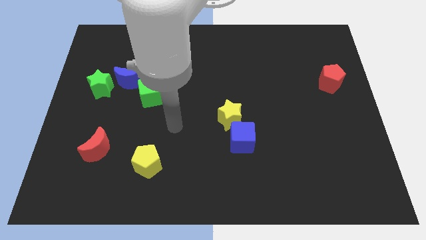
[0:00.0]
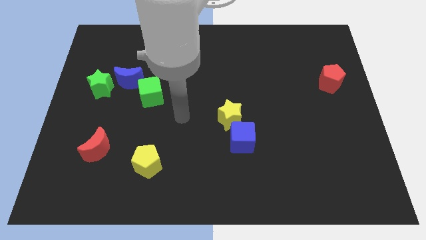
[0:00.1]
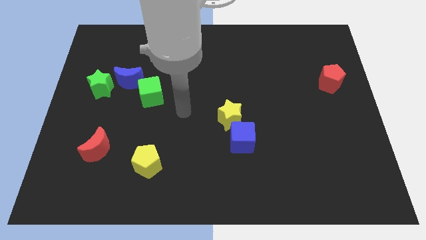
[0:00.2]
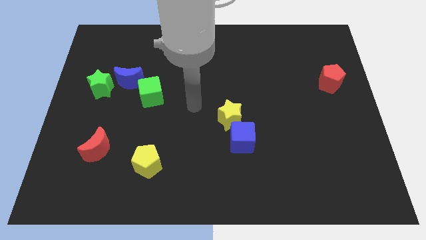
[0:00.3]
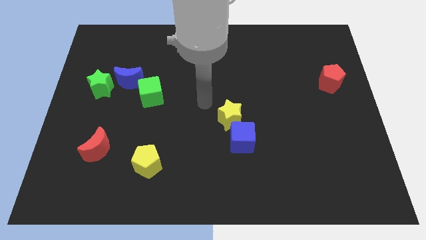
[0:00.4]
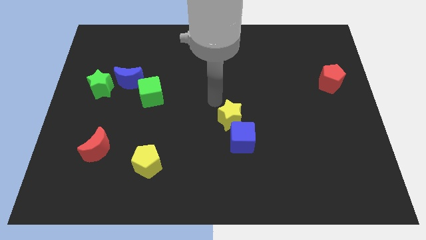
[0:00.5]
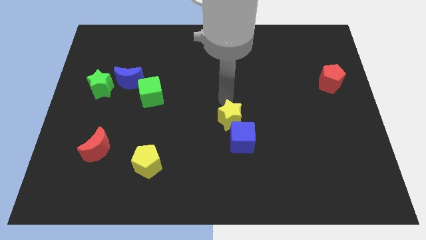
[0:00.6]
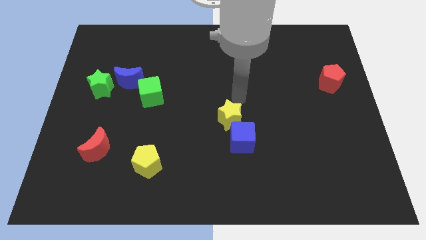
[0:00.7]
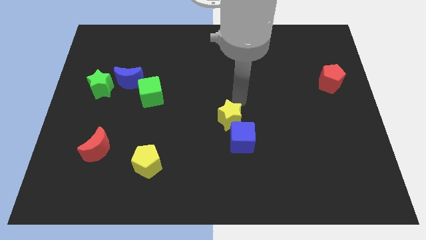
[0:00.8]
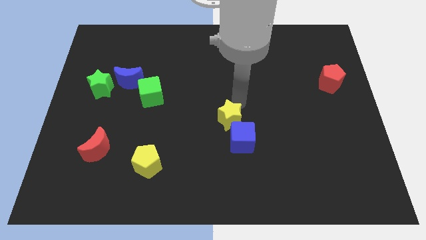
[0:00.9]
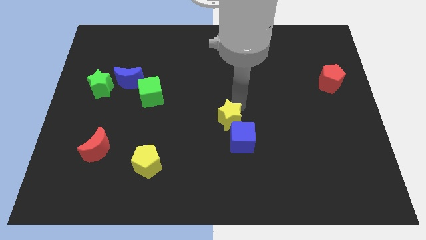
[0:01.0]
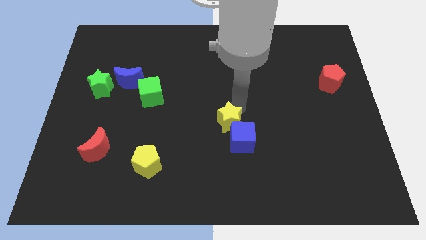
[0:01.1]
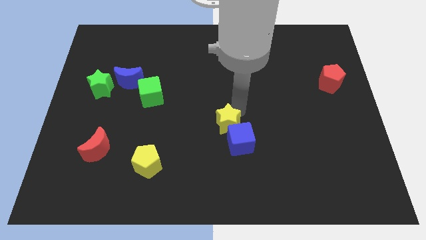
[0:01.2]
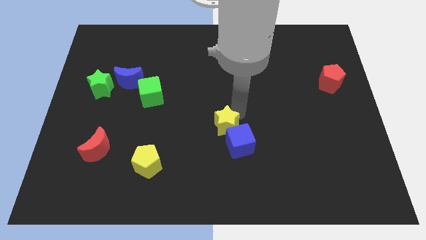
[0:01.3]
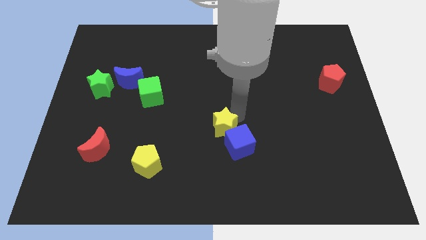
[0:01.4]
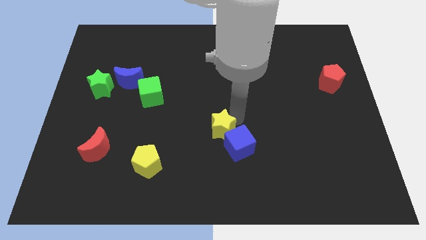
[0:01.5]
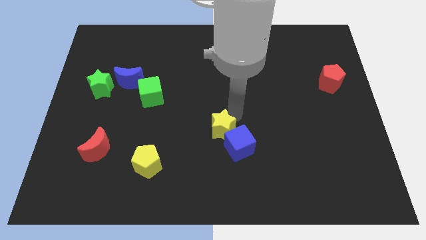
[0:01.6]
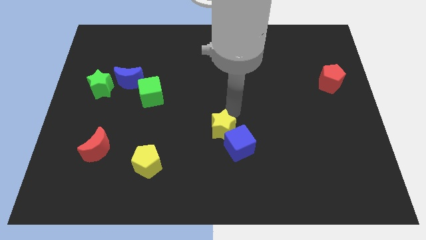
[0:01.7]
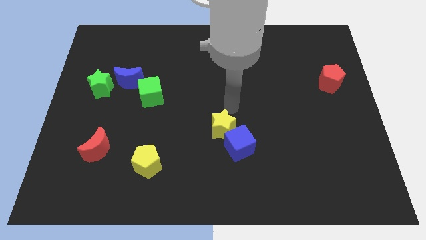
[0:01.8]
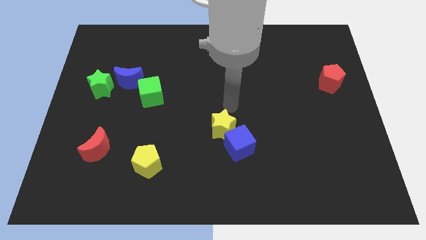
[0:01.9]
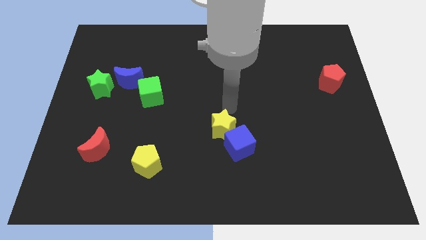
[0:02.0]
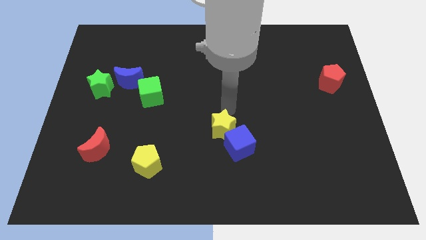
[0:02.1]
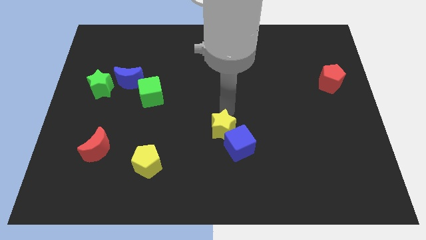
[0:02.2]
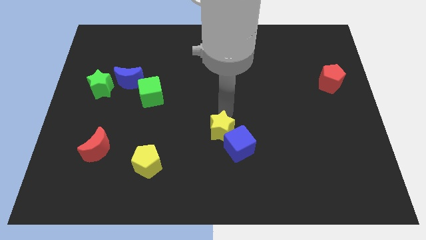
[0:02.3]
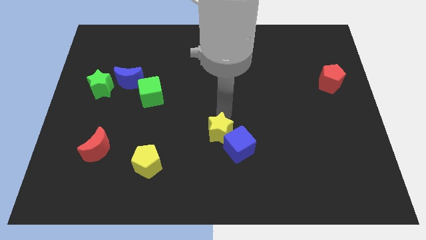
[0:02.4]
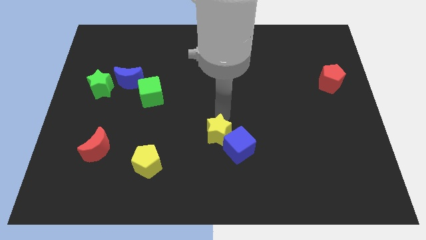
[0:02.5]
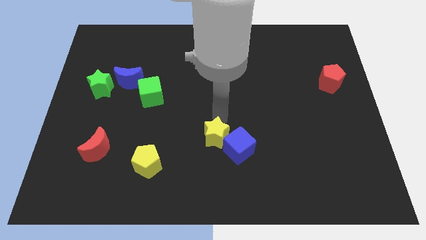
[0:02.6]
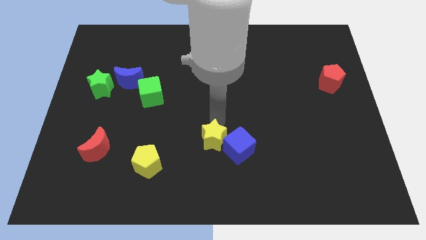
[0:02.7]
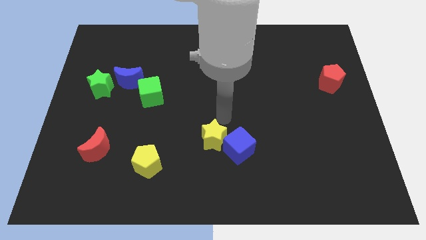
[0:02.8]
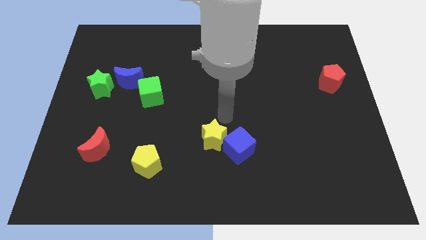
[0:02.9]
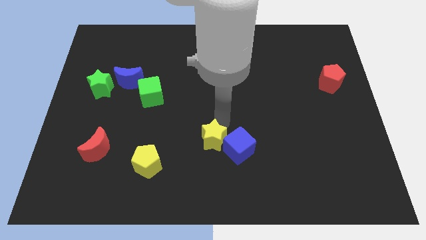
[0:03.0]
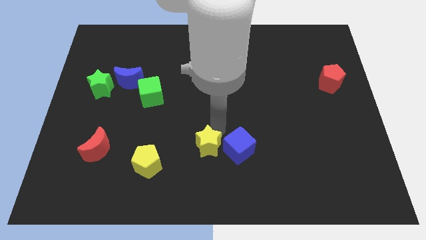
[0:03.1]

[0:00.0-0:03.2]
slide the yellow star downwards and left a little bit

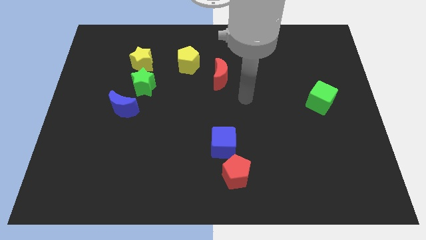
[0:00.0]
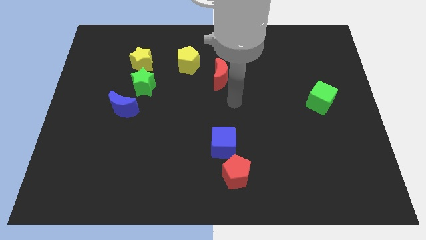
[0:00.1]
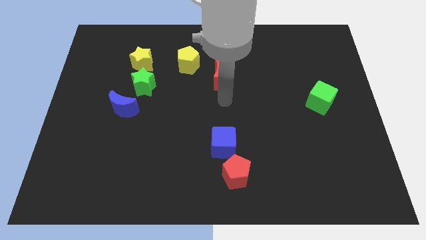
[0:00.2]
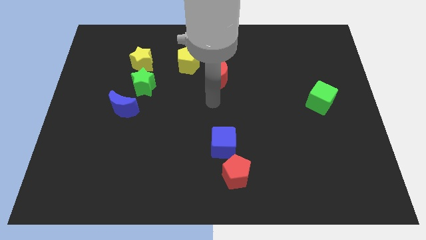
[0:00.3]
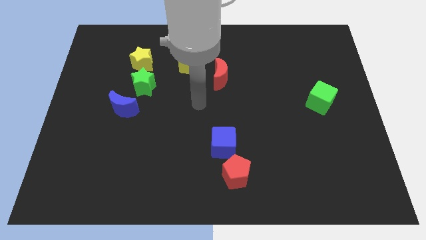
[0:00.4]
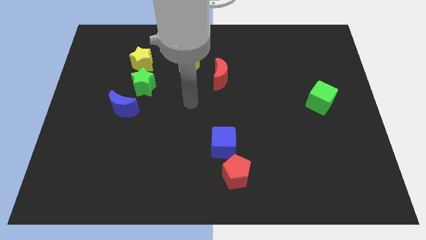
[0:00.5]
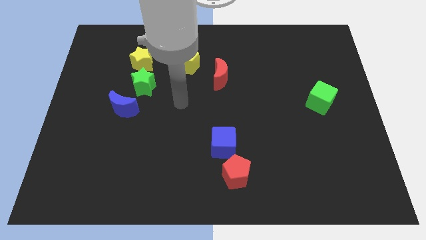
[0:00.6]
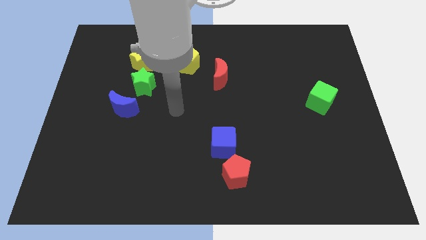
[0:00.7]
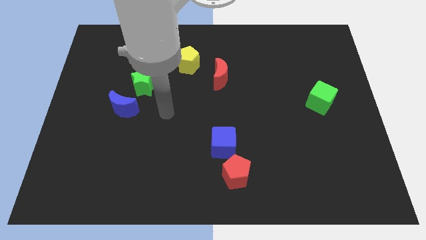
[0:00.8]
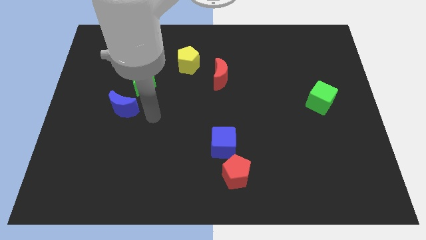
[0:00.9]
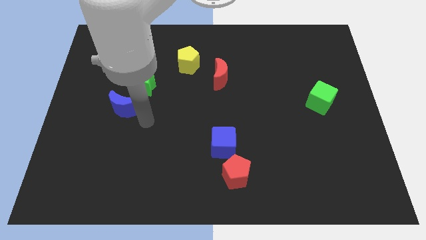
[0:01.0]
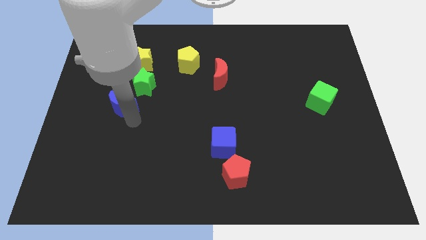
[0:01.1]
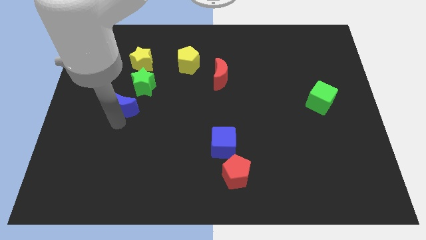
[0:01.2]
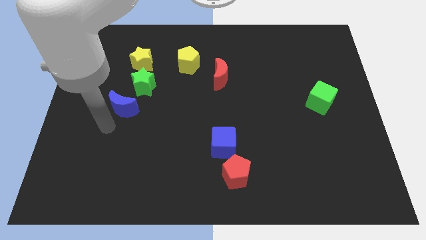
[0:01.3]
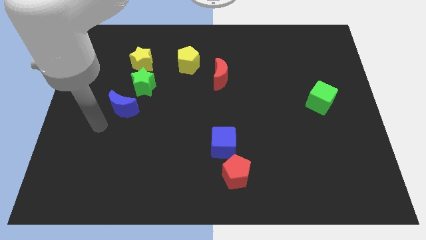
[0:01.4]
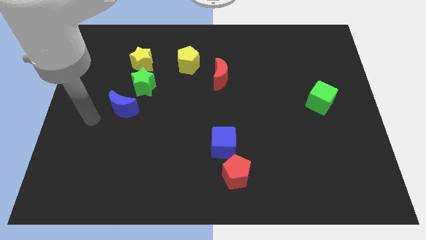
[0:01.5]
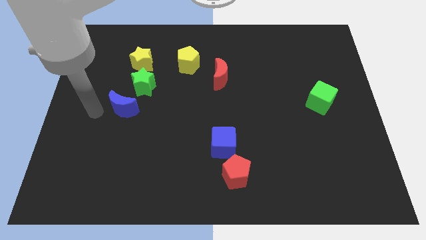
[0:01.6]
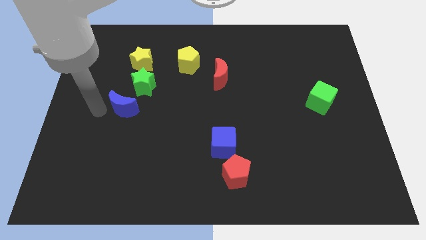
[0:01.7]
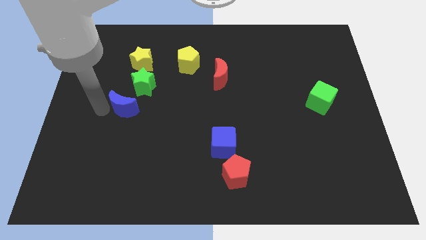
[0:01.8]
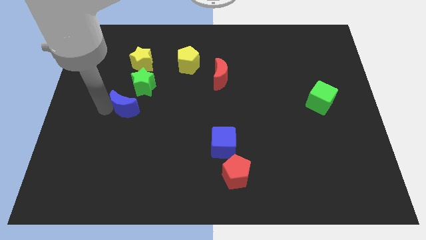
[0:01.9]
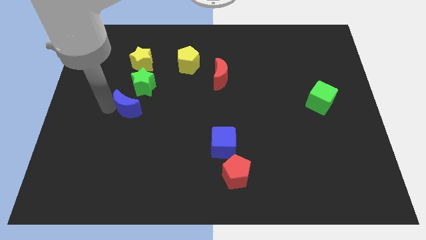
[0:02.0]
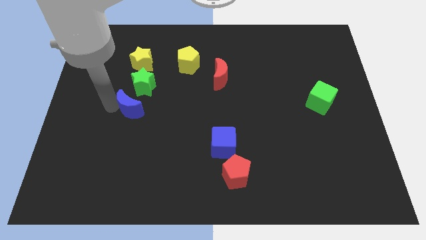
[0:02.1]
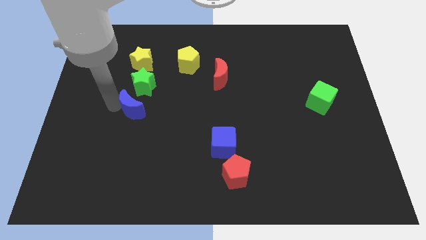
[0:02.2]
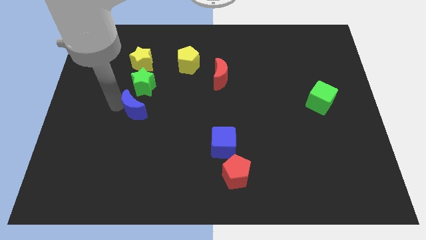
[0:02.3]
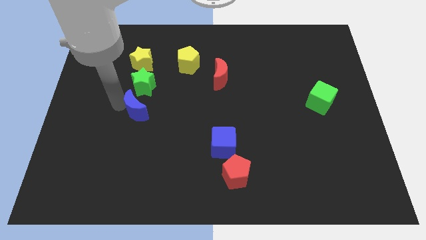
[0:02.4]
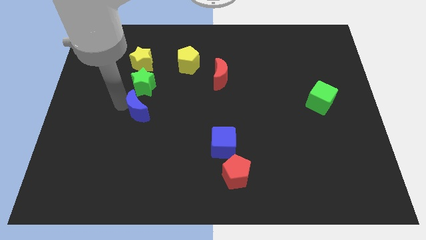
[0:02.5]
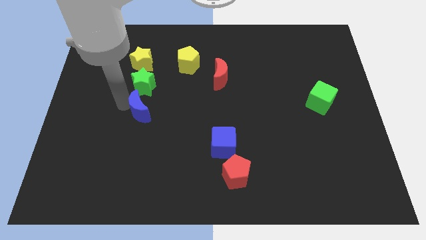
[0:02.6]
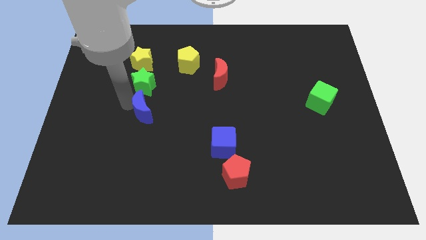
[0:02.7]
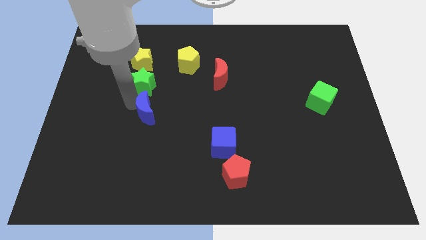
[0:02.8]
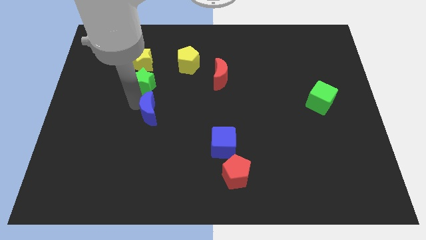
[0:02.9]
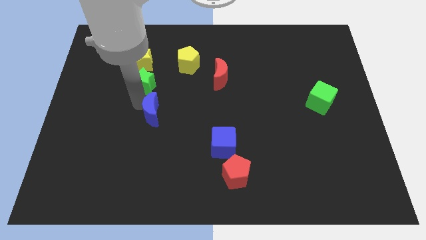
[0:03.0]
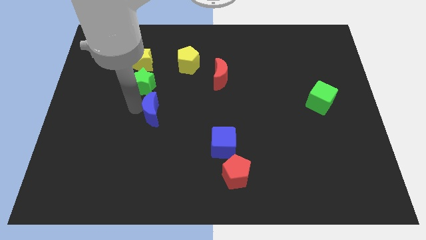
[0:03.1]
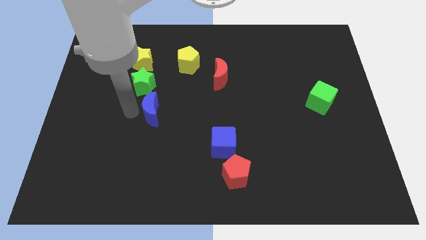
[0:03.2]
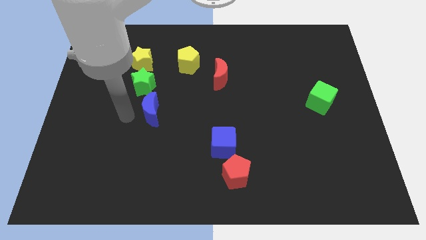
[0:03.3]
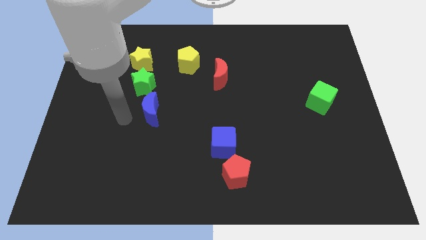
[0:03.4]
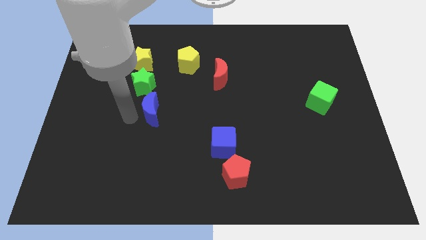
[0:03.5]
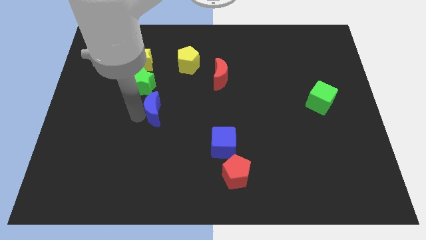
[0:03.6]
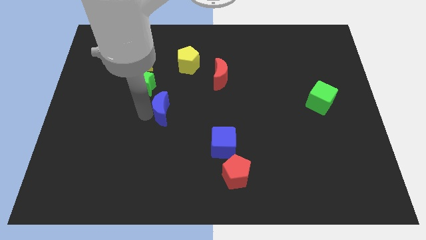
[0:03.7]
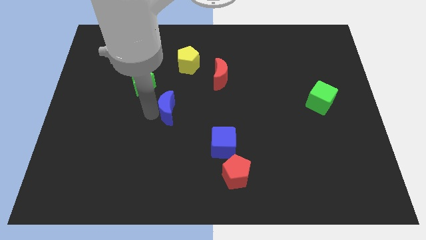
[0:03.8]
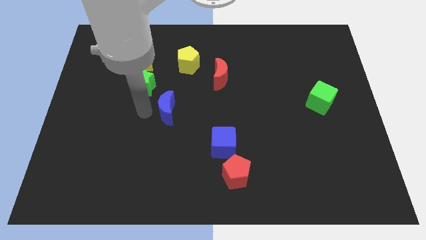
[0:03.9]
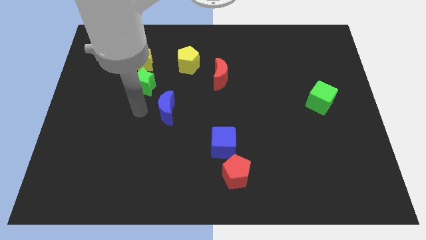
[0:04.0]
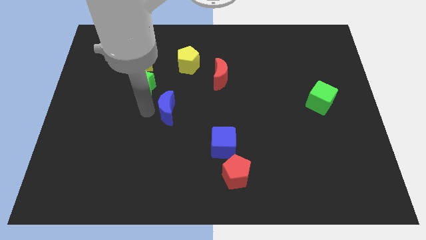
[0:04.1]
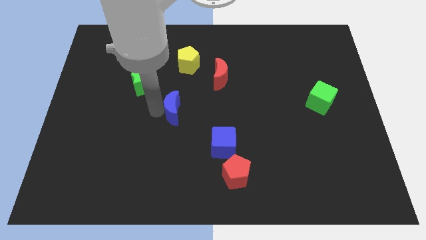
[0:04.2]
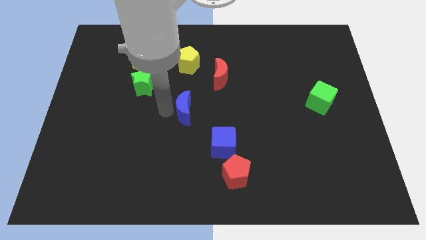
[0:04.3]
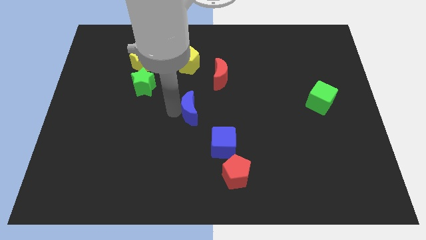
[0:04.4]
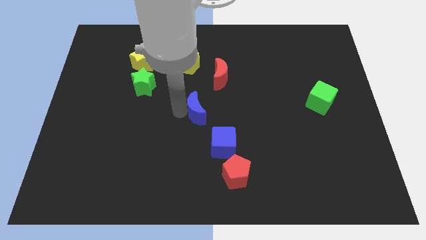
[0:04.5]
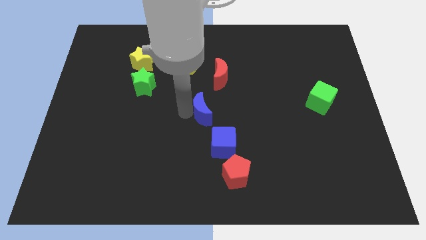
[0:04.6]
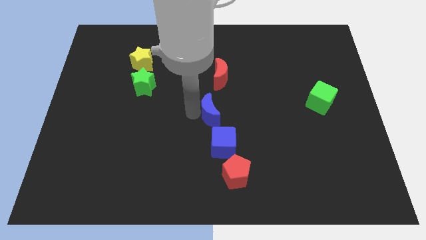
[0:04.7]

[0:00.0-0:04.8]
move the blue moon to the right

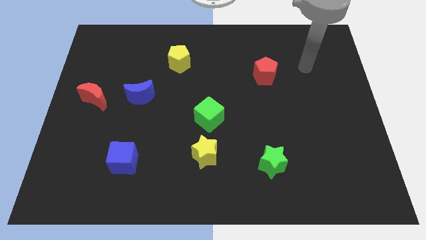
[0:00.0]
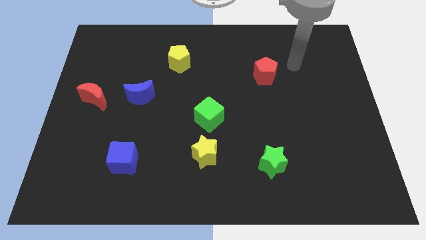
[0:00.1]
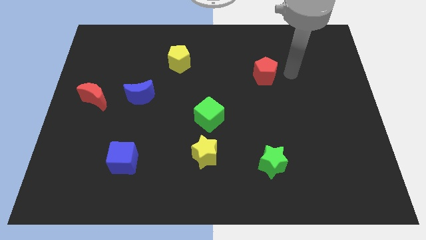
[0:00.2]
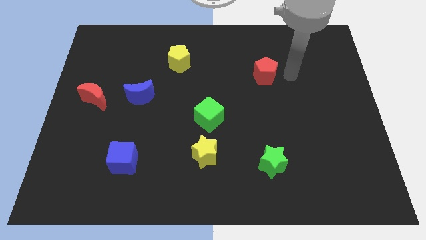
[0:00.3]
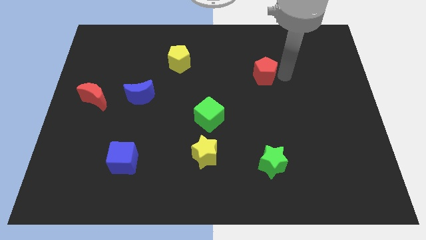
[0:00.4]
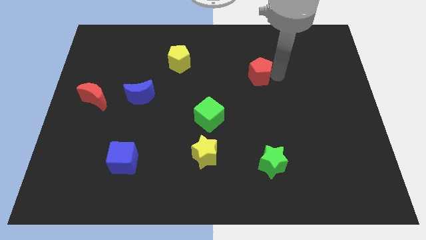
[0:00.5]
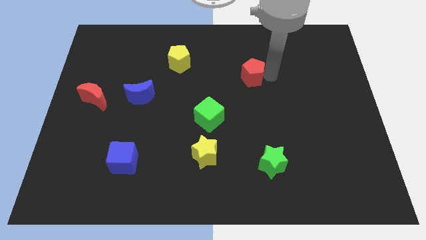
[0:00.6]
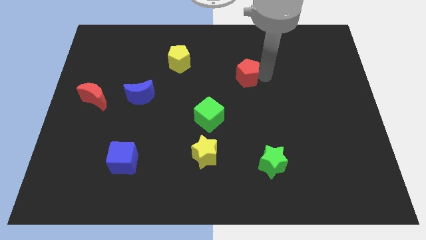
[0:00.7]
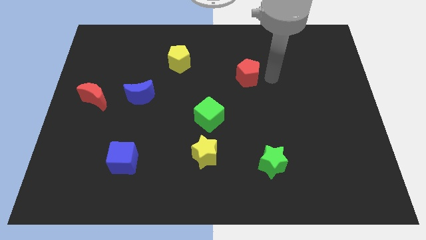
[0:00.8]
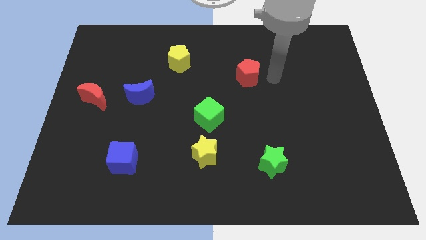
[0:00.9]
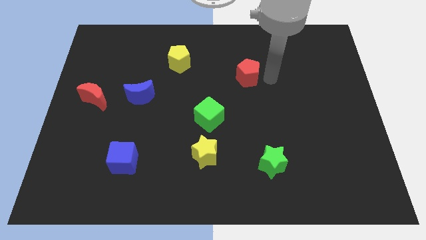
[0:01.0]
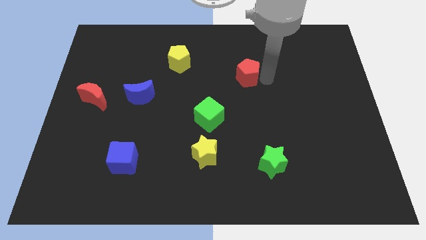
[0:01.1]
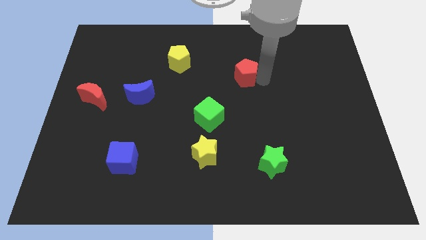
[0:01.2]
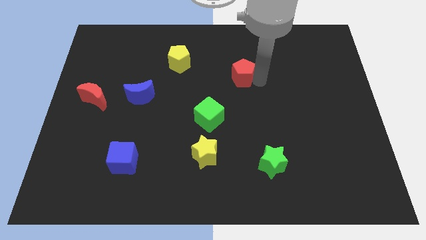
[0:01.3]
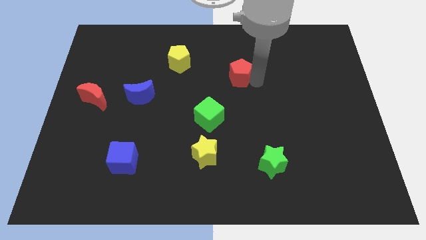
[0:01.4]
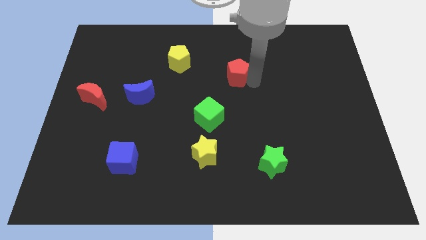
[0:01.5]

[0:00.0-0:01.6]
push the red pentagon to the left a little
